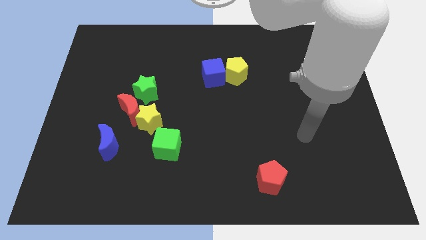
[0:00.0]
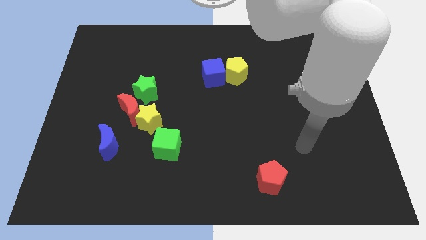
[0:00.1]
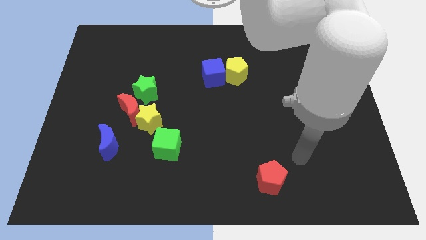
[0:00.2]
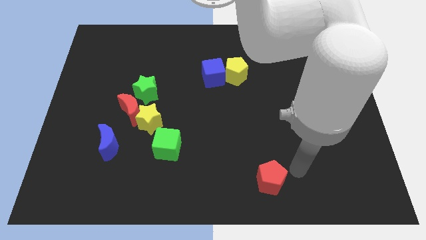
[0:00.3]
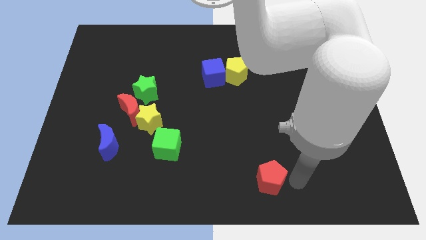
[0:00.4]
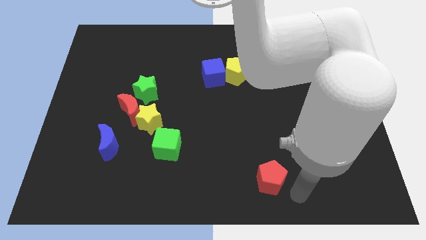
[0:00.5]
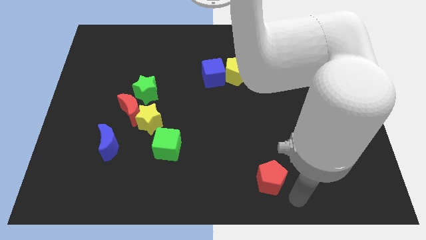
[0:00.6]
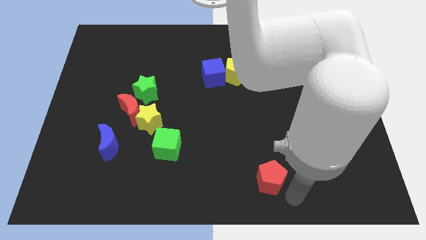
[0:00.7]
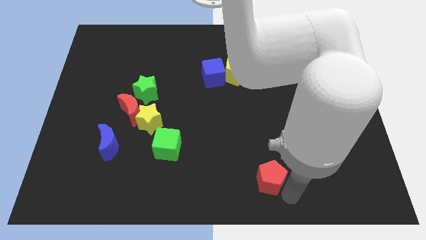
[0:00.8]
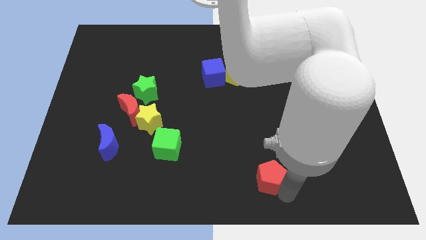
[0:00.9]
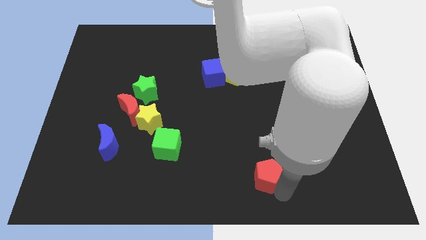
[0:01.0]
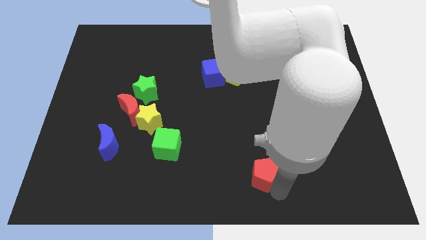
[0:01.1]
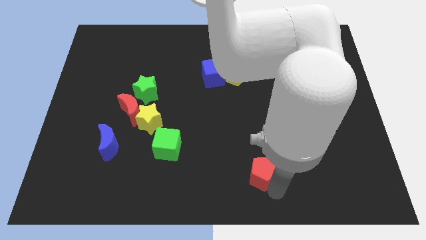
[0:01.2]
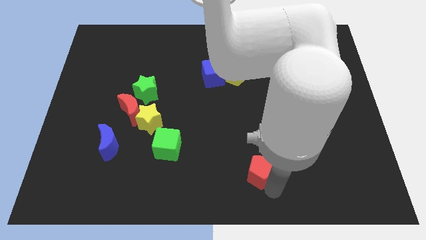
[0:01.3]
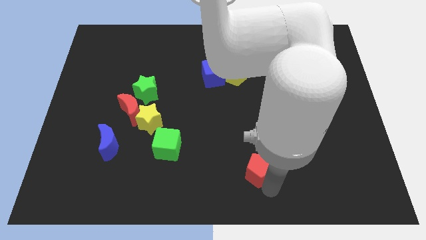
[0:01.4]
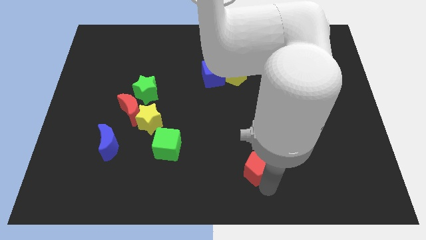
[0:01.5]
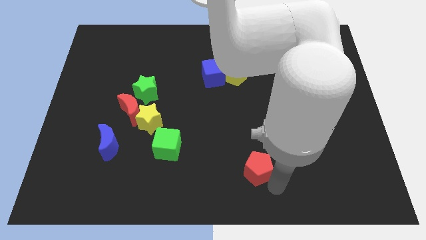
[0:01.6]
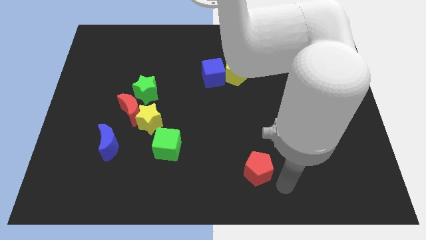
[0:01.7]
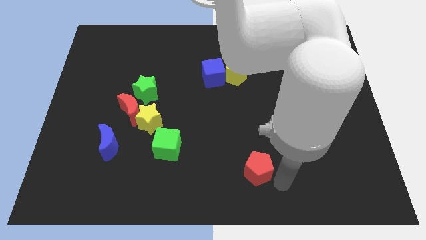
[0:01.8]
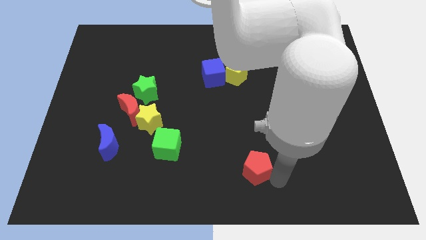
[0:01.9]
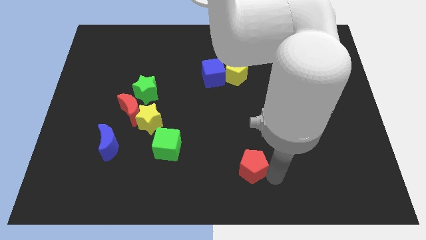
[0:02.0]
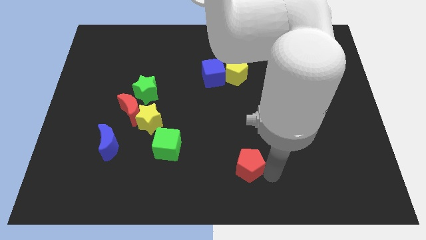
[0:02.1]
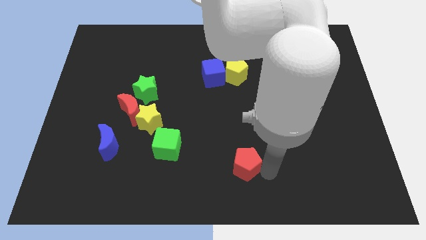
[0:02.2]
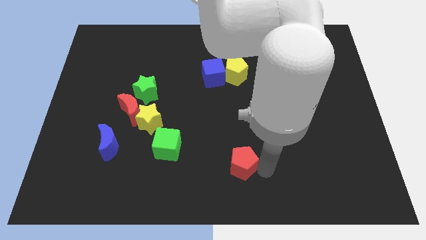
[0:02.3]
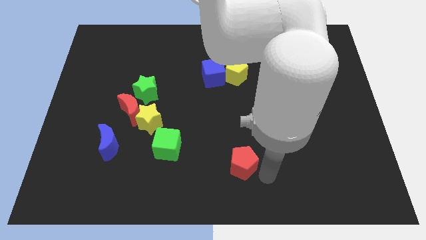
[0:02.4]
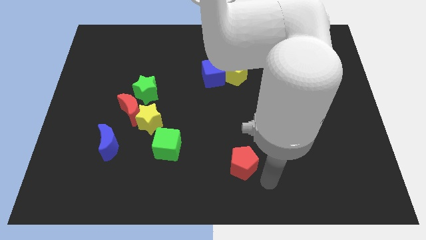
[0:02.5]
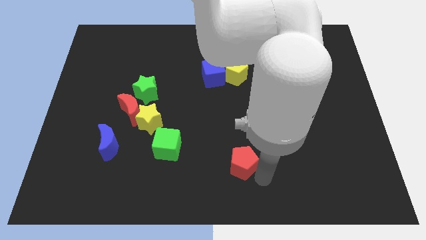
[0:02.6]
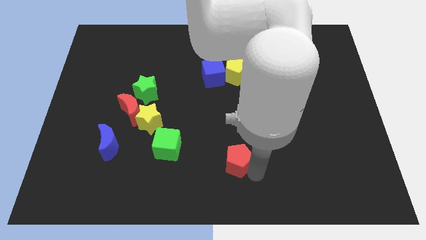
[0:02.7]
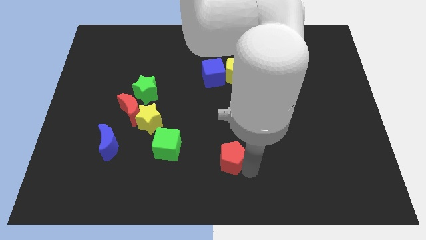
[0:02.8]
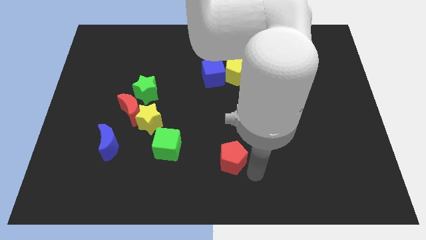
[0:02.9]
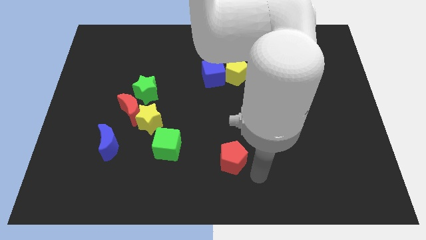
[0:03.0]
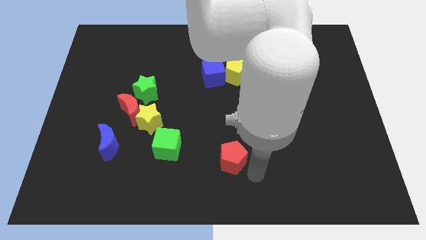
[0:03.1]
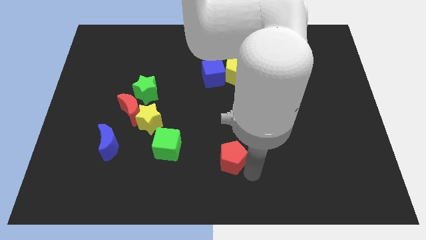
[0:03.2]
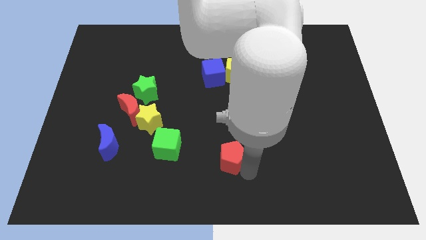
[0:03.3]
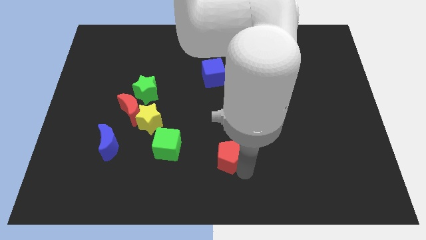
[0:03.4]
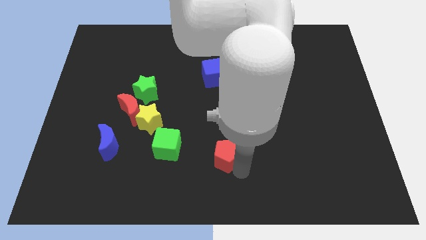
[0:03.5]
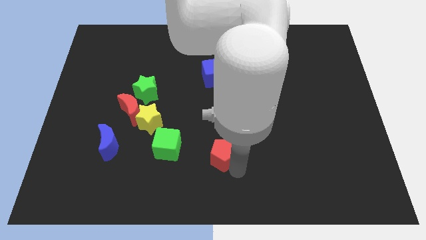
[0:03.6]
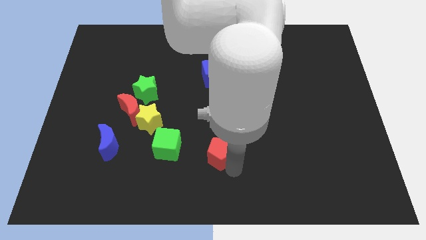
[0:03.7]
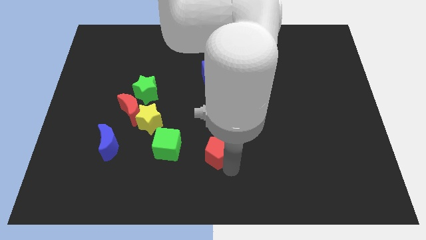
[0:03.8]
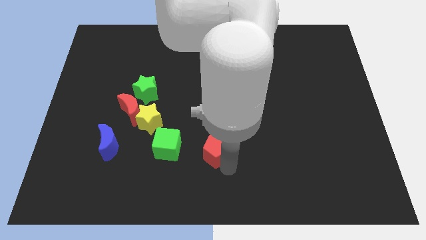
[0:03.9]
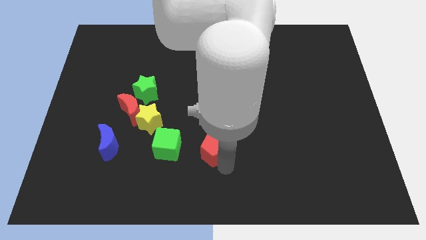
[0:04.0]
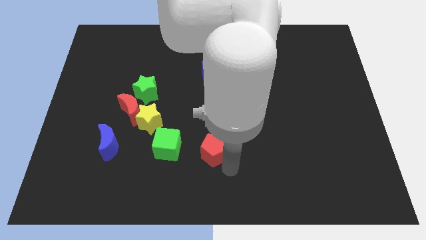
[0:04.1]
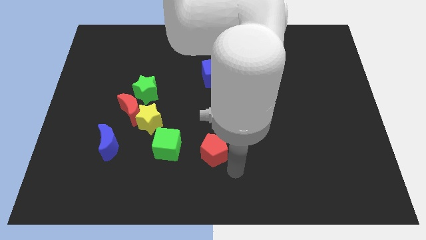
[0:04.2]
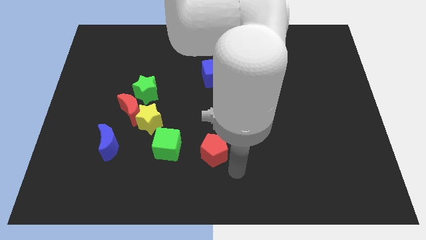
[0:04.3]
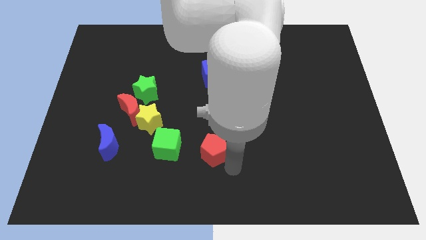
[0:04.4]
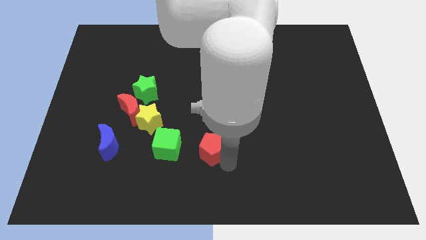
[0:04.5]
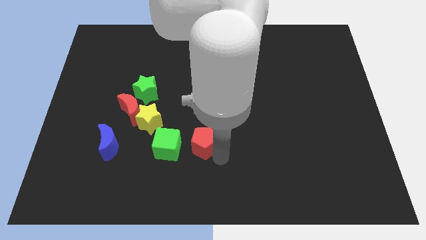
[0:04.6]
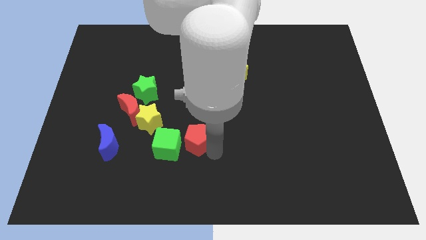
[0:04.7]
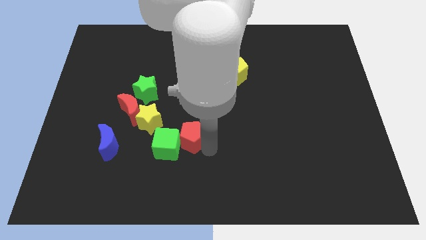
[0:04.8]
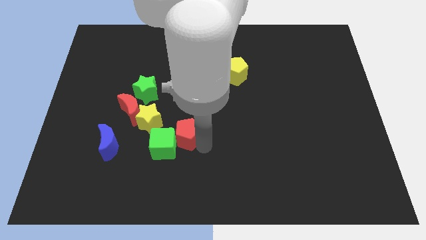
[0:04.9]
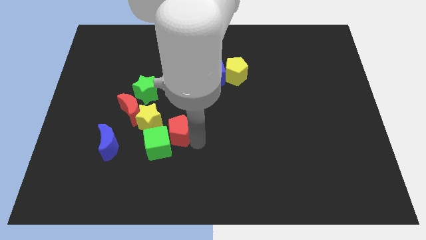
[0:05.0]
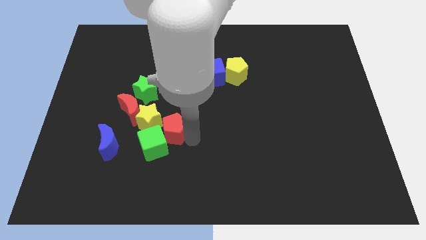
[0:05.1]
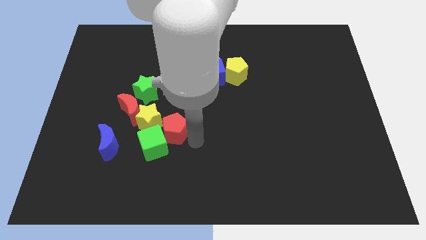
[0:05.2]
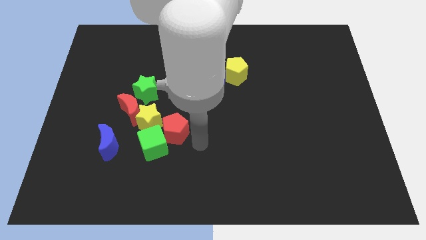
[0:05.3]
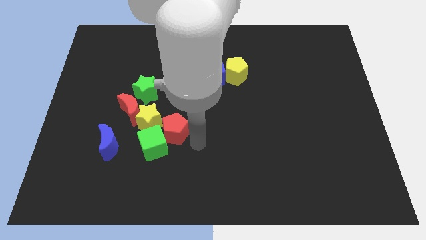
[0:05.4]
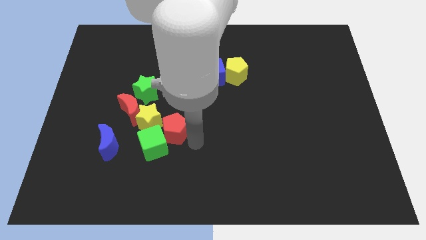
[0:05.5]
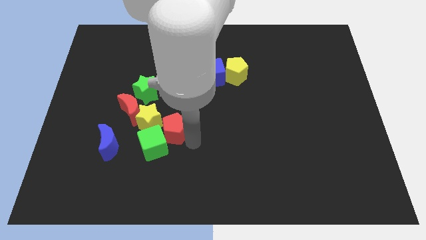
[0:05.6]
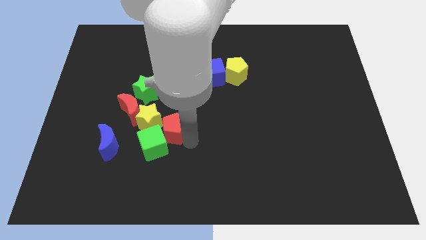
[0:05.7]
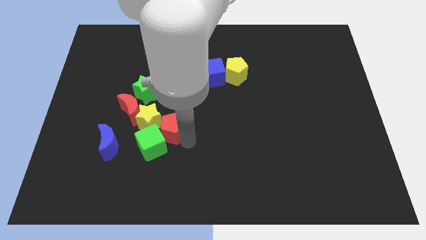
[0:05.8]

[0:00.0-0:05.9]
move the red pentagon close to the yellow star
